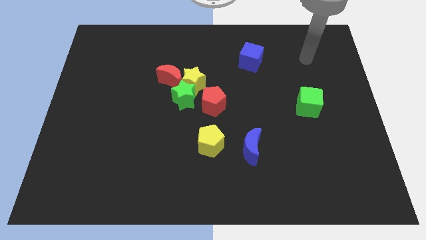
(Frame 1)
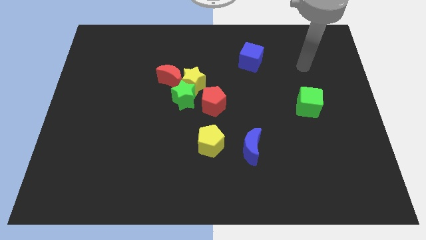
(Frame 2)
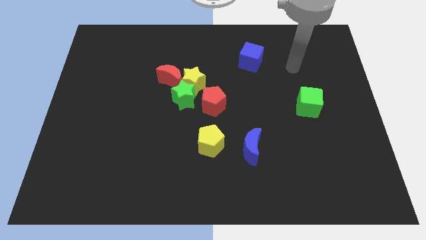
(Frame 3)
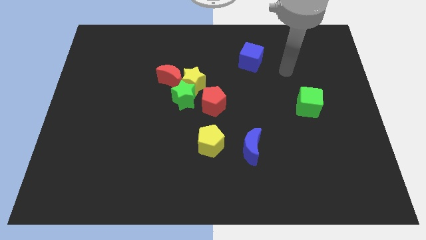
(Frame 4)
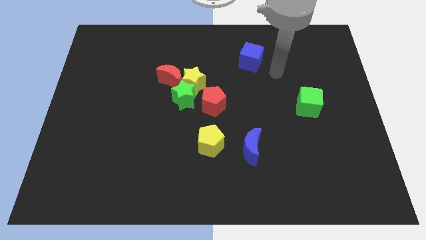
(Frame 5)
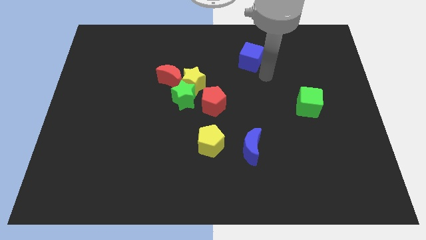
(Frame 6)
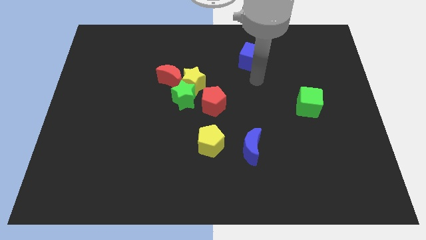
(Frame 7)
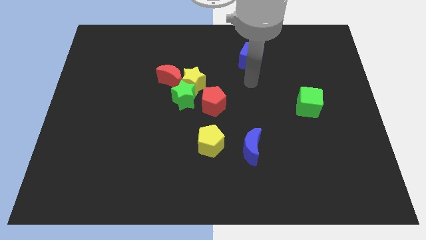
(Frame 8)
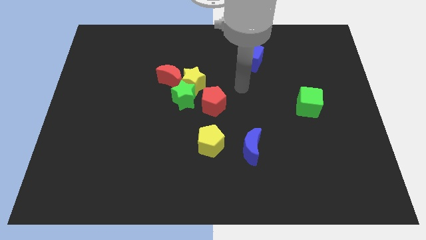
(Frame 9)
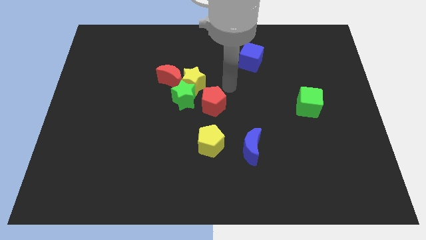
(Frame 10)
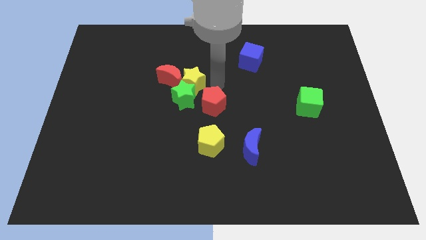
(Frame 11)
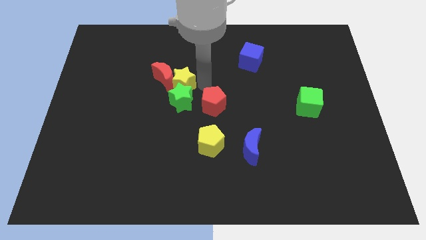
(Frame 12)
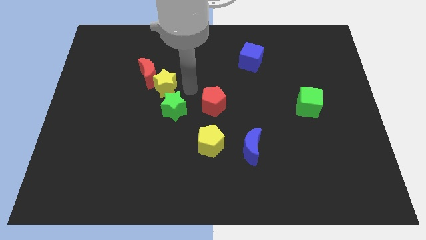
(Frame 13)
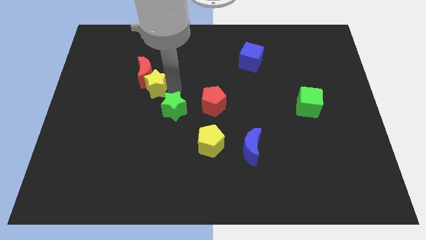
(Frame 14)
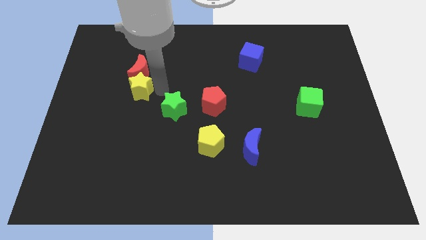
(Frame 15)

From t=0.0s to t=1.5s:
move the red moon away from the yellow star and green star

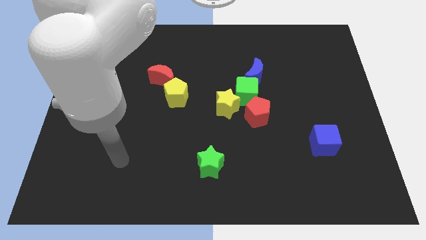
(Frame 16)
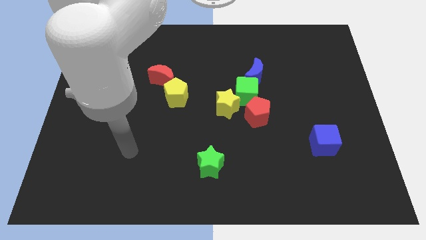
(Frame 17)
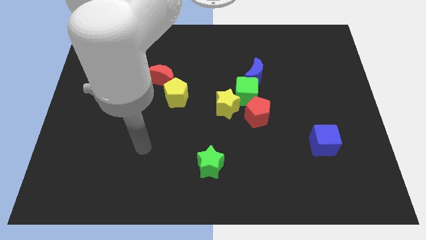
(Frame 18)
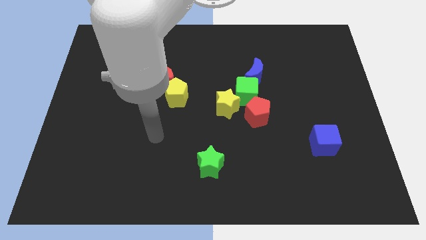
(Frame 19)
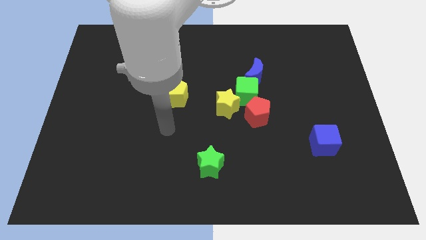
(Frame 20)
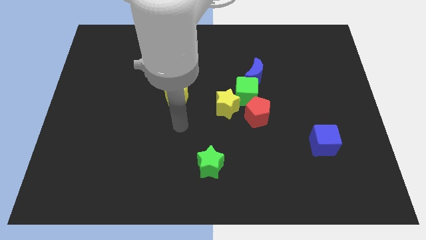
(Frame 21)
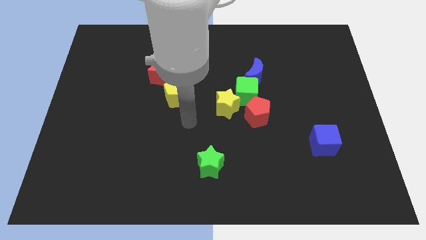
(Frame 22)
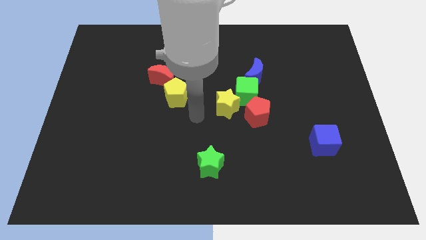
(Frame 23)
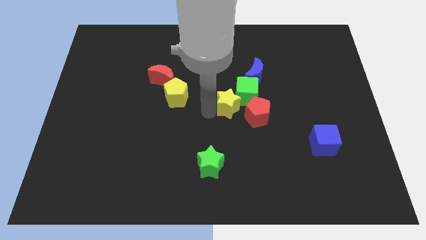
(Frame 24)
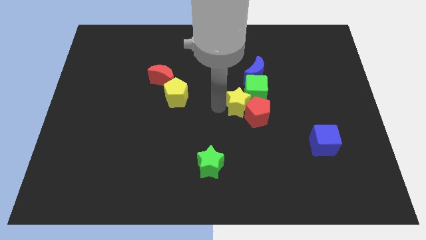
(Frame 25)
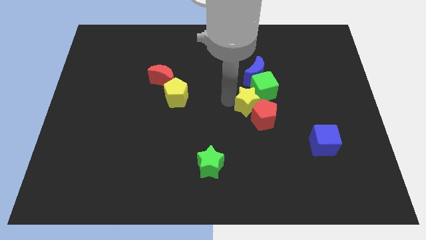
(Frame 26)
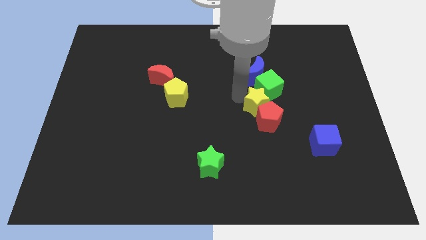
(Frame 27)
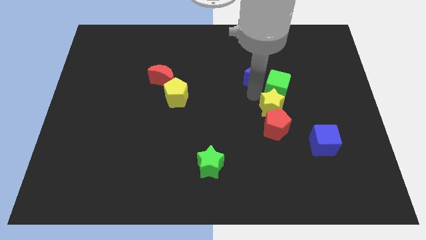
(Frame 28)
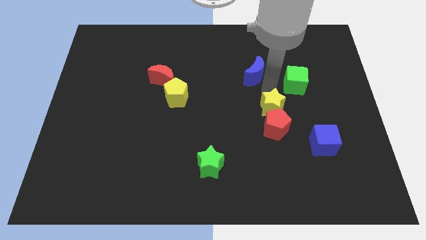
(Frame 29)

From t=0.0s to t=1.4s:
pull the blue moon apart from the green cube

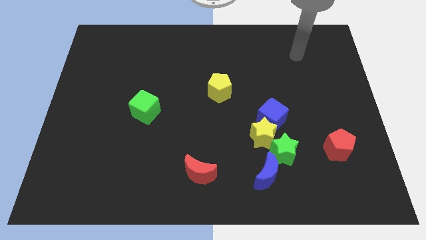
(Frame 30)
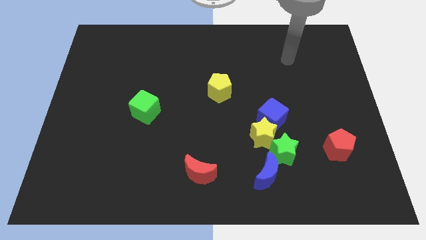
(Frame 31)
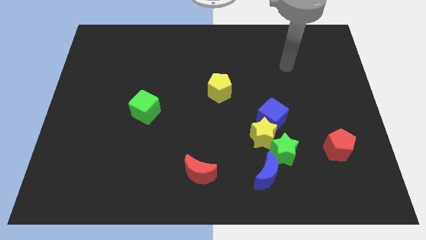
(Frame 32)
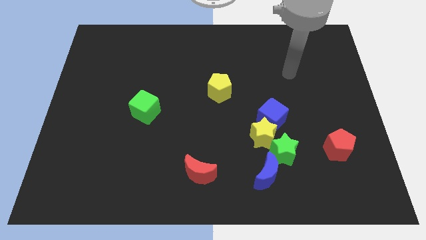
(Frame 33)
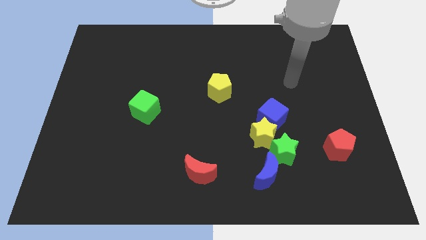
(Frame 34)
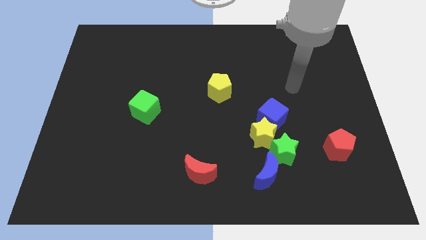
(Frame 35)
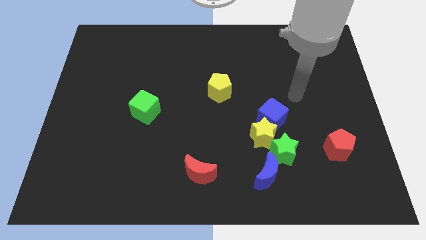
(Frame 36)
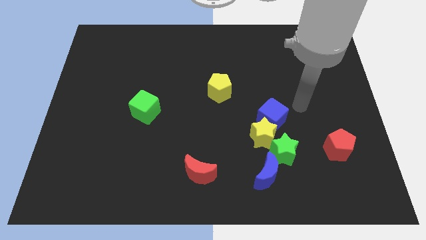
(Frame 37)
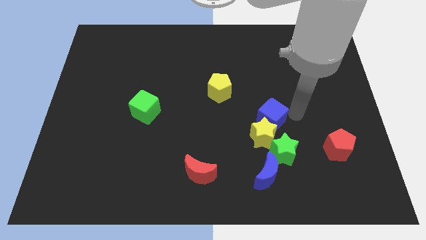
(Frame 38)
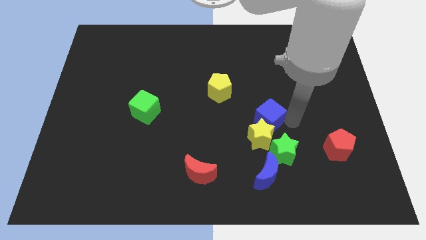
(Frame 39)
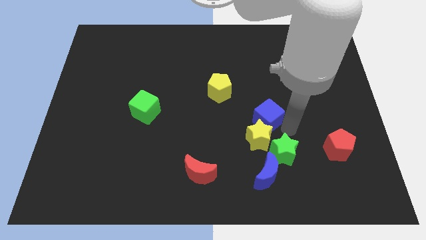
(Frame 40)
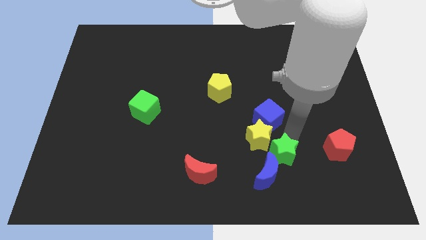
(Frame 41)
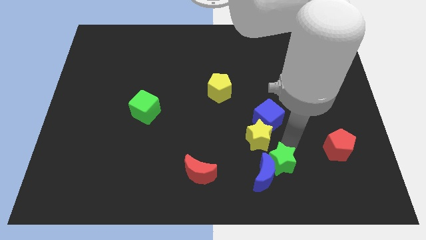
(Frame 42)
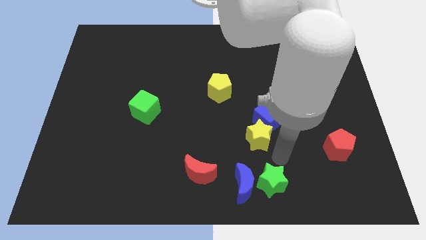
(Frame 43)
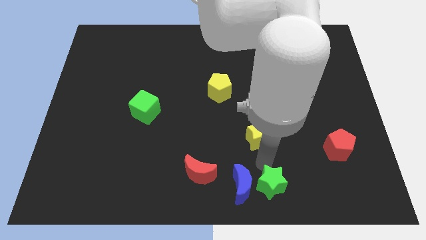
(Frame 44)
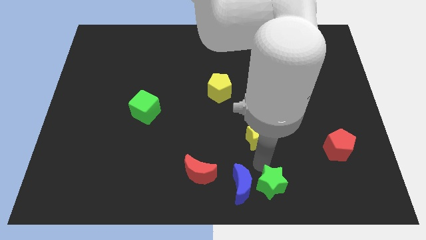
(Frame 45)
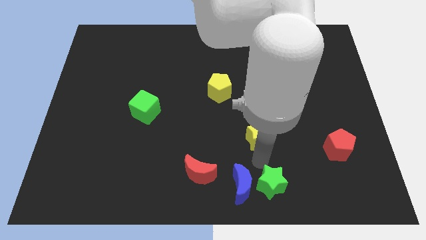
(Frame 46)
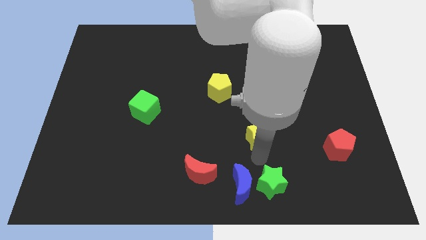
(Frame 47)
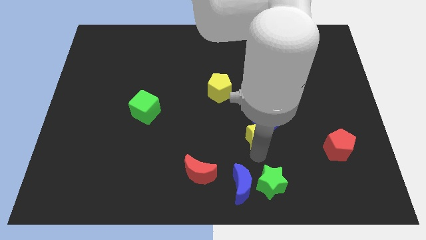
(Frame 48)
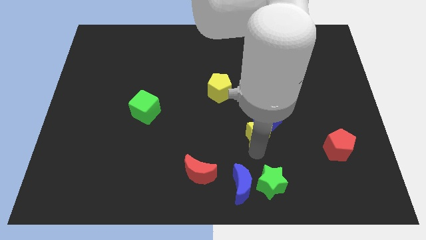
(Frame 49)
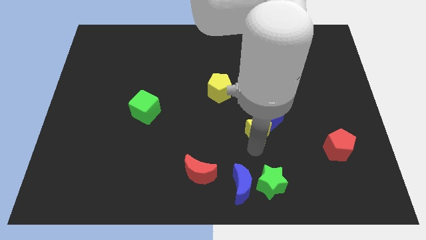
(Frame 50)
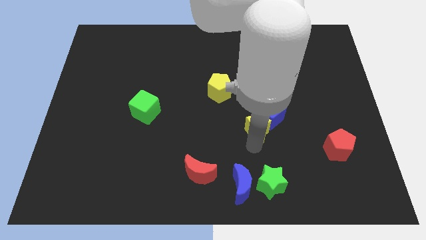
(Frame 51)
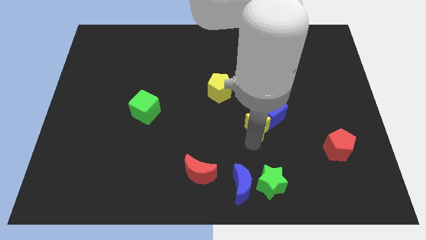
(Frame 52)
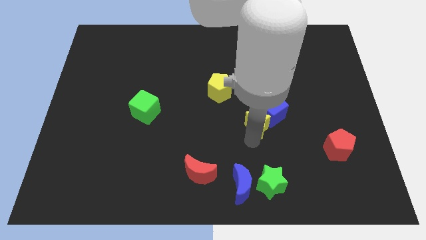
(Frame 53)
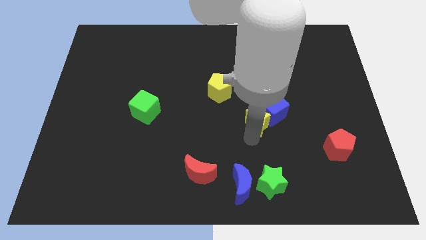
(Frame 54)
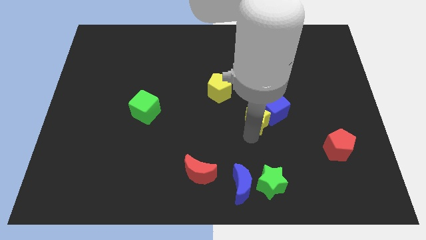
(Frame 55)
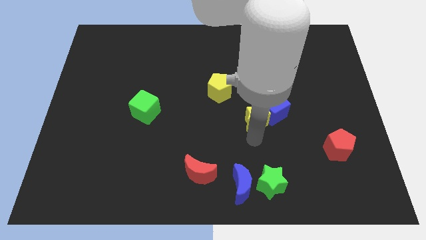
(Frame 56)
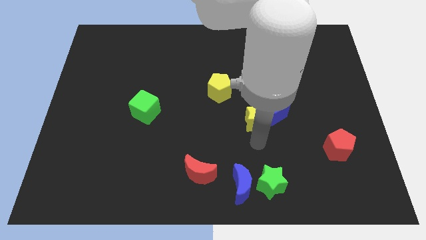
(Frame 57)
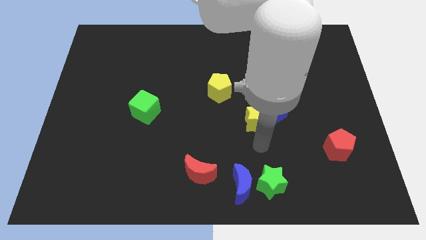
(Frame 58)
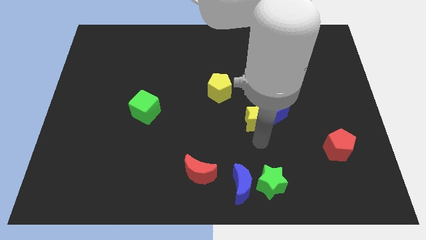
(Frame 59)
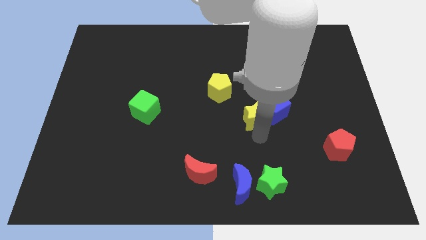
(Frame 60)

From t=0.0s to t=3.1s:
pull the yellow star apart from the clump

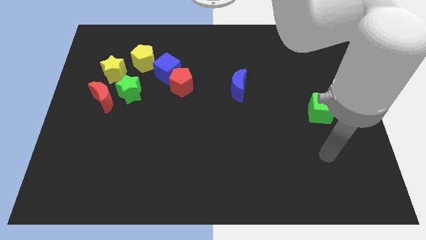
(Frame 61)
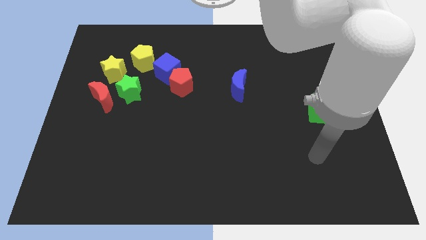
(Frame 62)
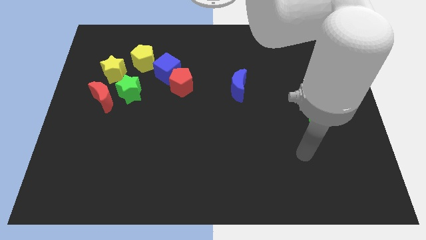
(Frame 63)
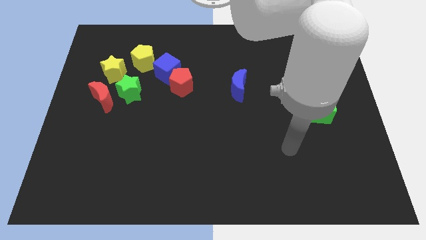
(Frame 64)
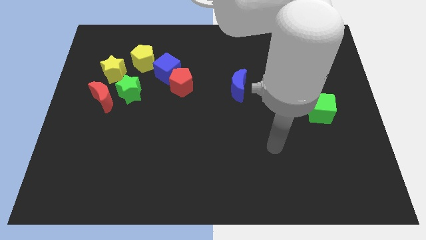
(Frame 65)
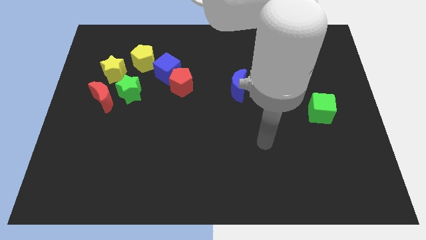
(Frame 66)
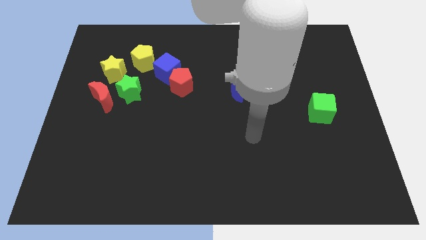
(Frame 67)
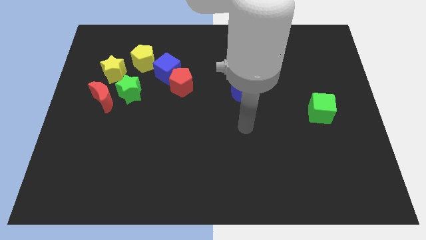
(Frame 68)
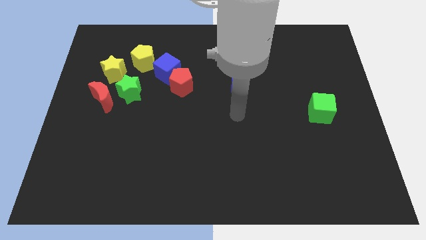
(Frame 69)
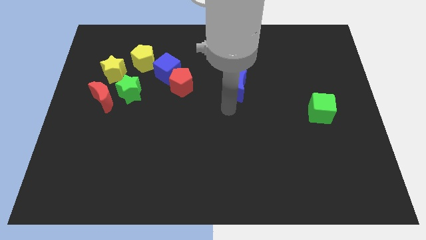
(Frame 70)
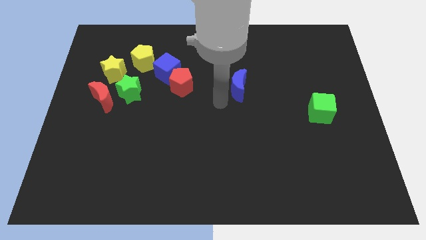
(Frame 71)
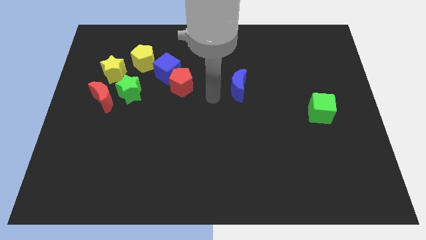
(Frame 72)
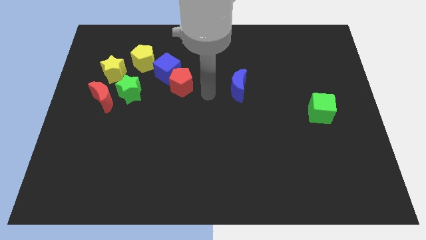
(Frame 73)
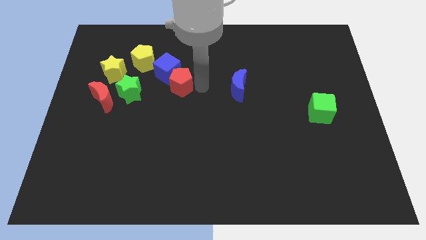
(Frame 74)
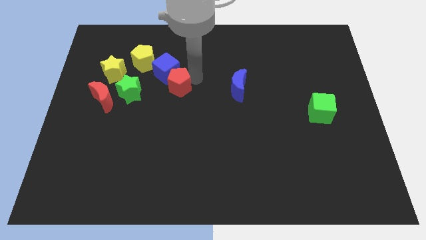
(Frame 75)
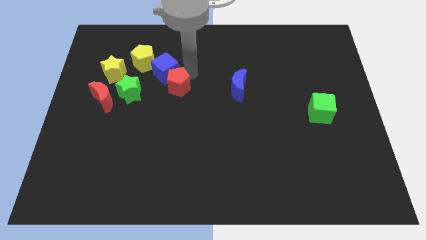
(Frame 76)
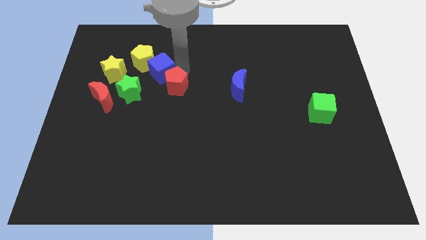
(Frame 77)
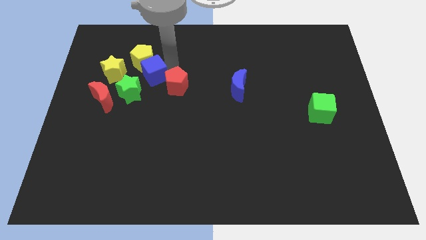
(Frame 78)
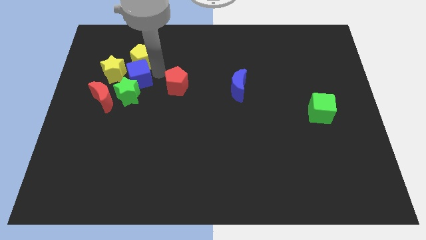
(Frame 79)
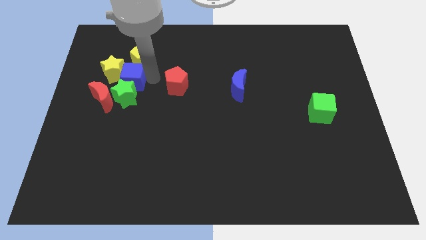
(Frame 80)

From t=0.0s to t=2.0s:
separate the red pentagon from the blue cube

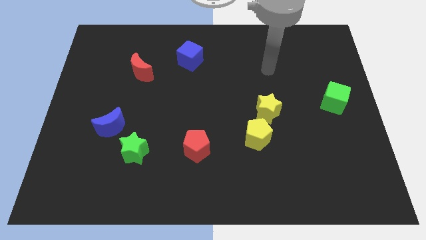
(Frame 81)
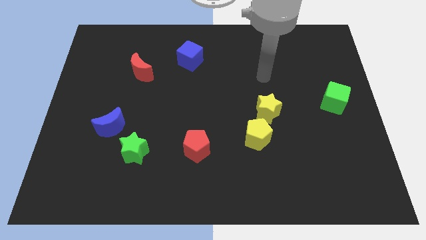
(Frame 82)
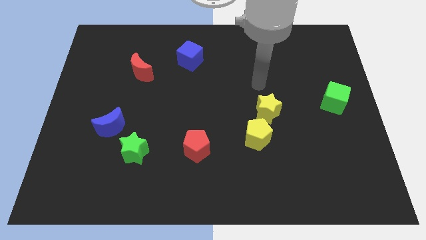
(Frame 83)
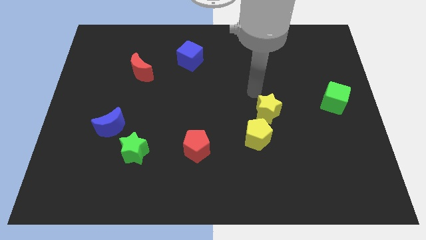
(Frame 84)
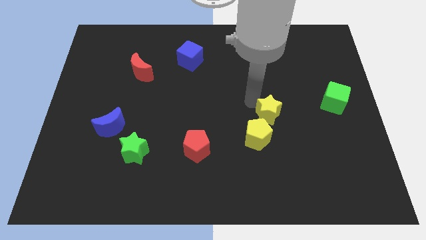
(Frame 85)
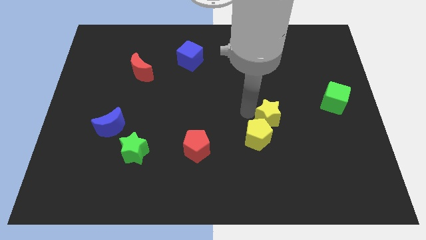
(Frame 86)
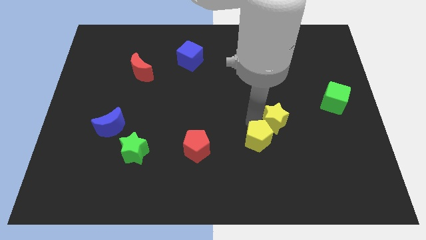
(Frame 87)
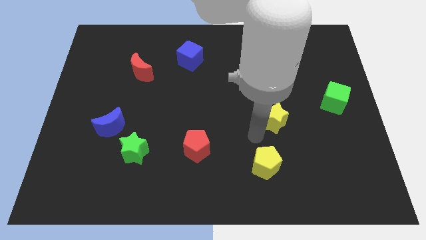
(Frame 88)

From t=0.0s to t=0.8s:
separate the yellow star from the yellow pentagon

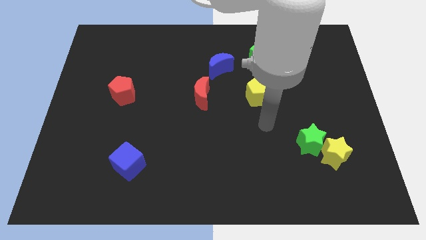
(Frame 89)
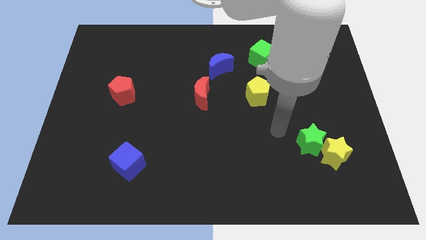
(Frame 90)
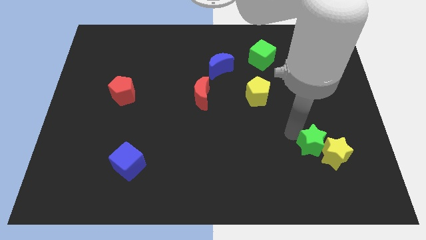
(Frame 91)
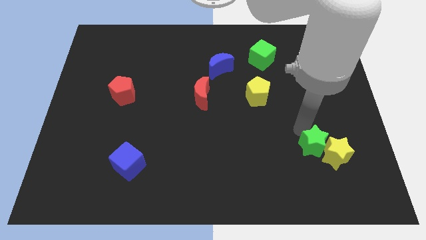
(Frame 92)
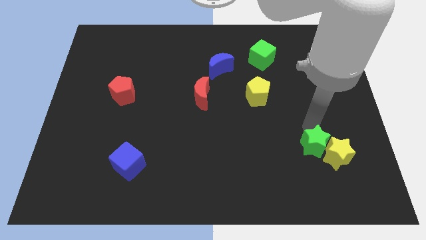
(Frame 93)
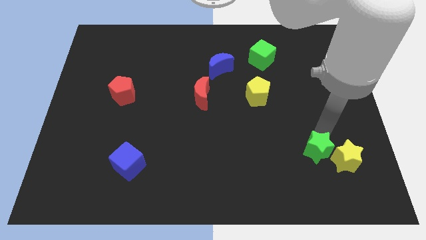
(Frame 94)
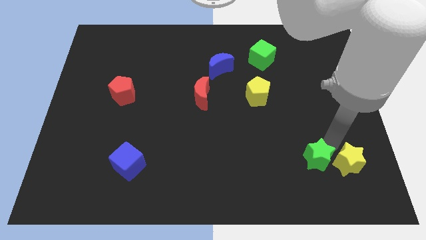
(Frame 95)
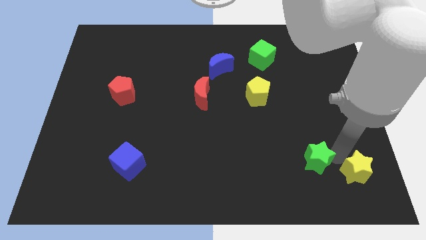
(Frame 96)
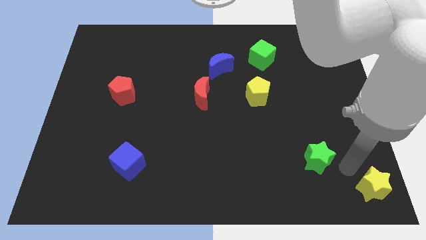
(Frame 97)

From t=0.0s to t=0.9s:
move the green star away from the yellow star
